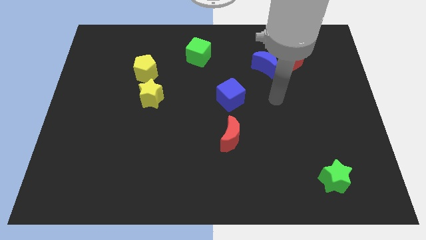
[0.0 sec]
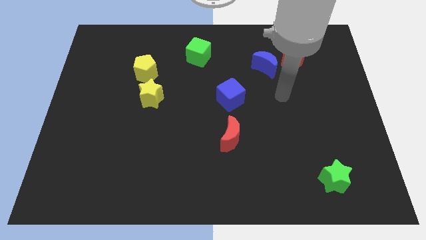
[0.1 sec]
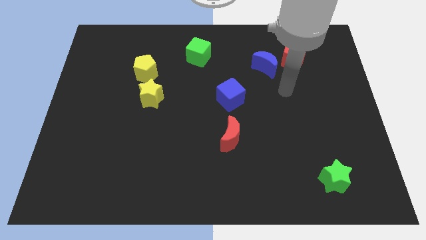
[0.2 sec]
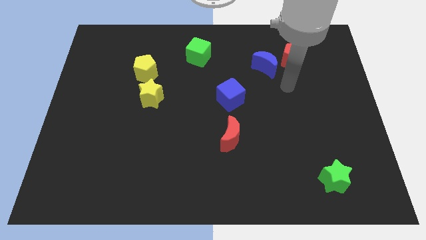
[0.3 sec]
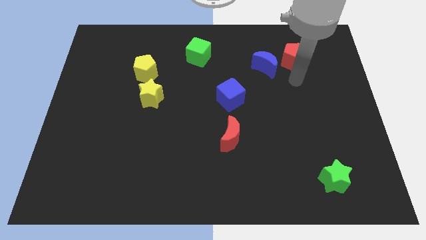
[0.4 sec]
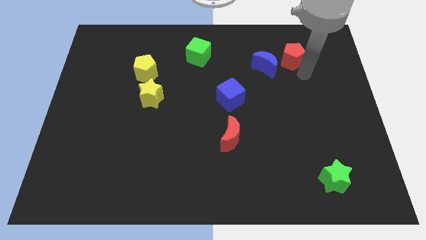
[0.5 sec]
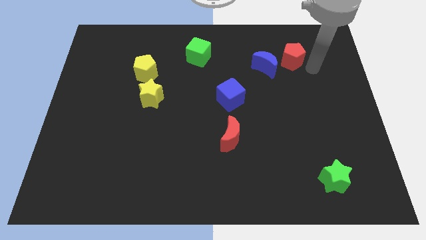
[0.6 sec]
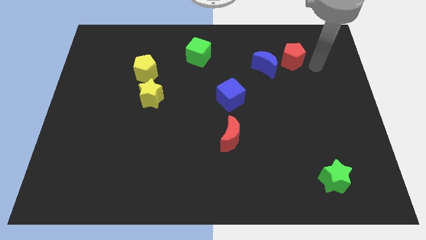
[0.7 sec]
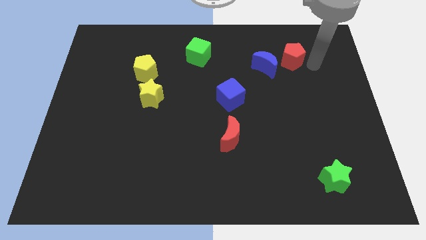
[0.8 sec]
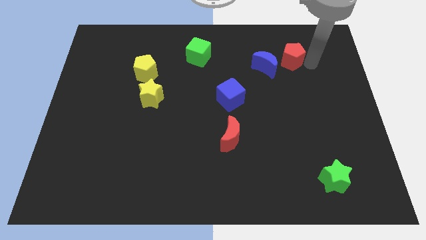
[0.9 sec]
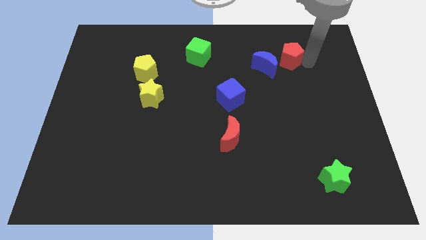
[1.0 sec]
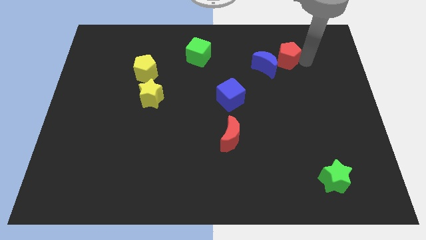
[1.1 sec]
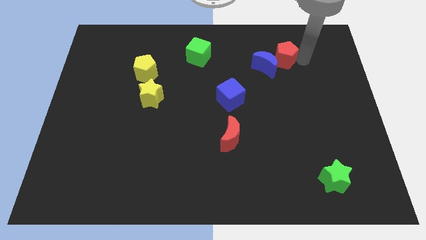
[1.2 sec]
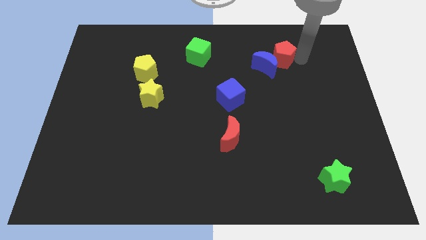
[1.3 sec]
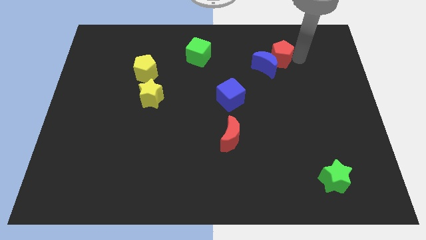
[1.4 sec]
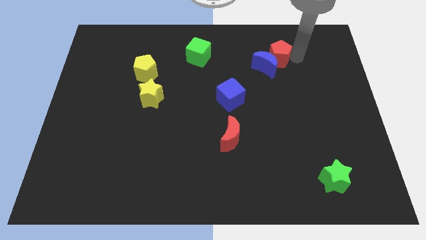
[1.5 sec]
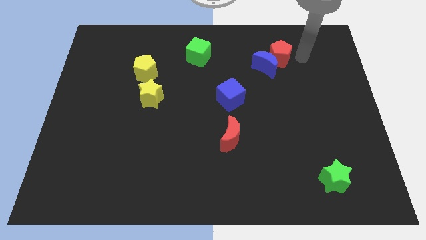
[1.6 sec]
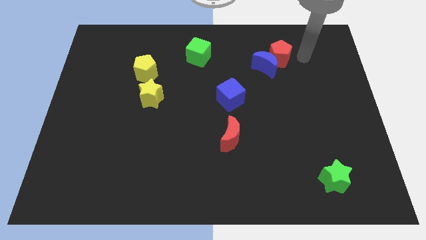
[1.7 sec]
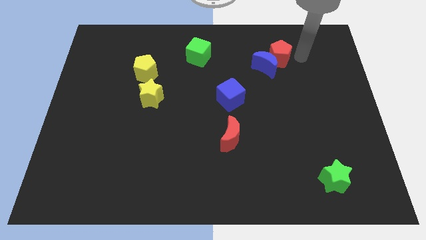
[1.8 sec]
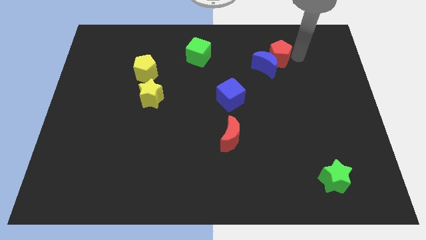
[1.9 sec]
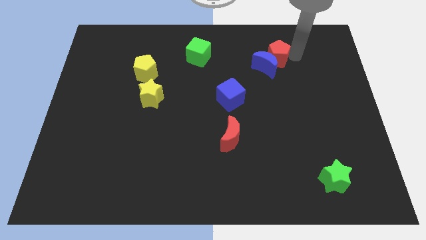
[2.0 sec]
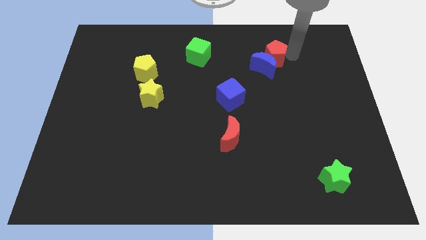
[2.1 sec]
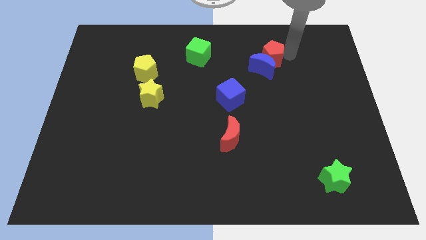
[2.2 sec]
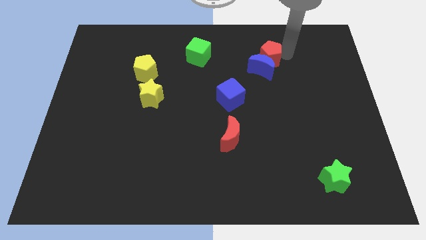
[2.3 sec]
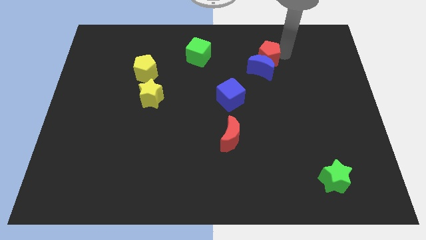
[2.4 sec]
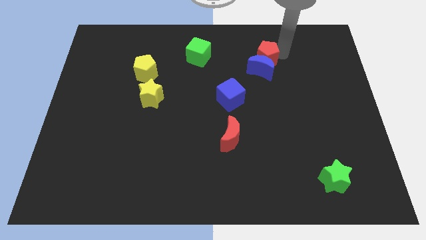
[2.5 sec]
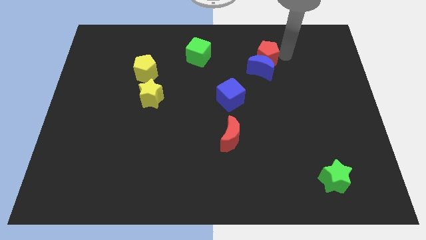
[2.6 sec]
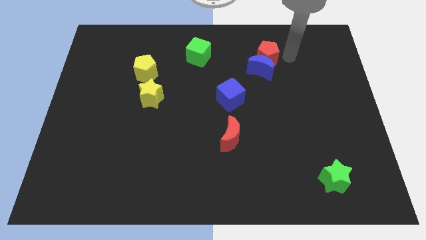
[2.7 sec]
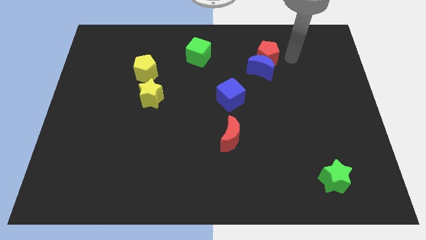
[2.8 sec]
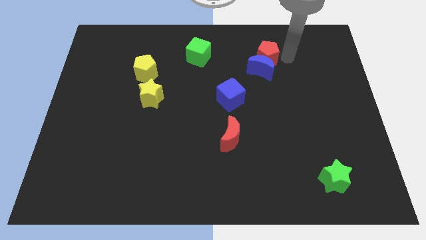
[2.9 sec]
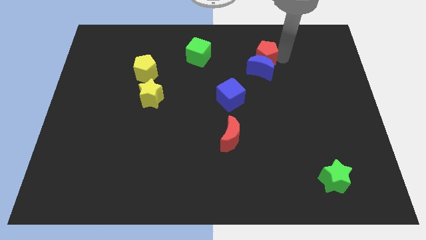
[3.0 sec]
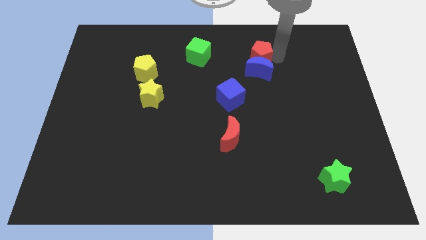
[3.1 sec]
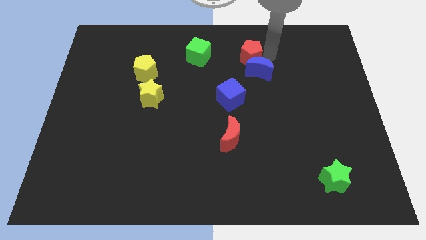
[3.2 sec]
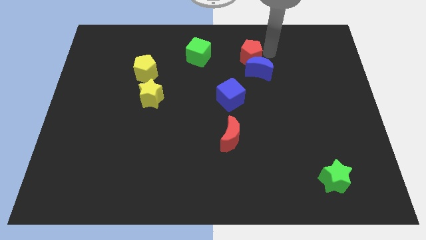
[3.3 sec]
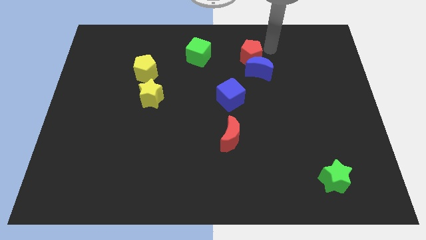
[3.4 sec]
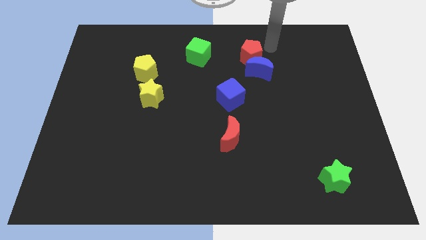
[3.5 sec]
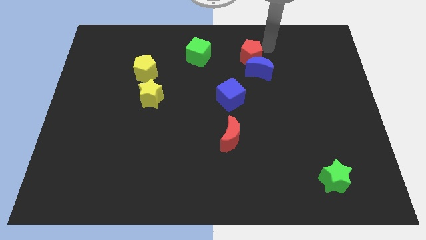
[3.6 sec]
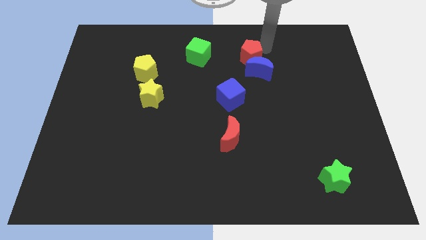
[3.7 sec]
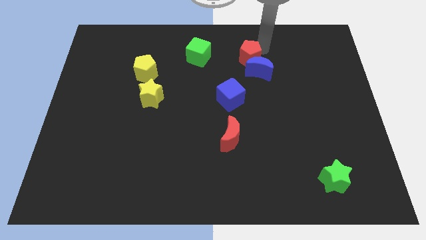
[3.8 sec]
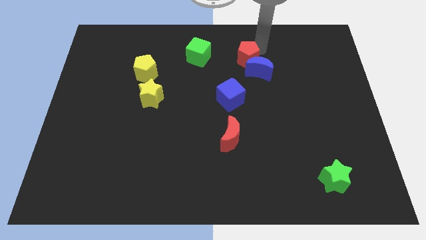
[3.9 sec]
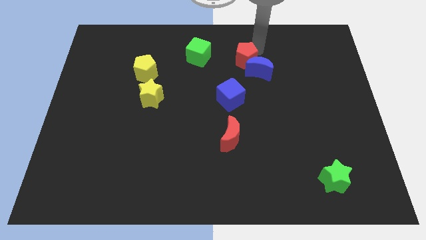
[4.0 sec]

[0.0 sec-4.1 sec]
slide the red pentagon to the top side of the blue cube

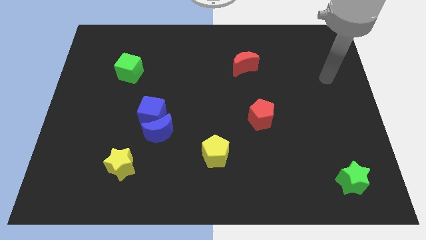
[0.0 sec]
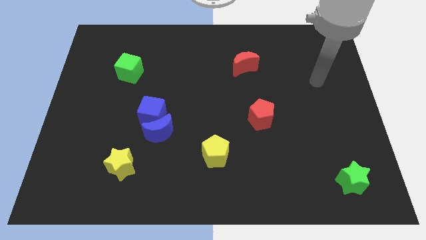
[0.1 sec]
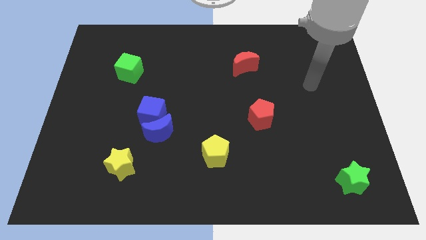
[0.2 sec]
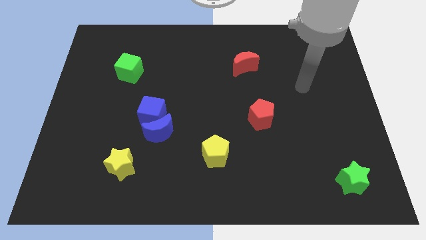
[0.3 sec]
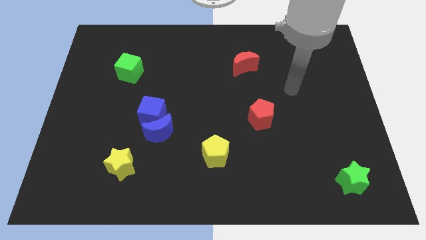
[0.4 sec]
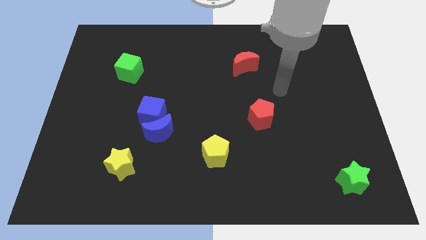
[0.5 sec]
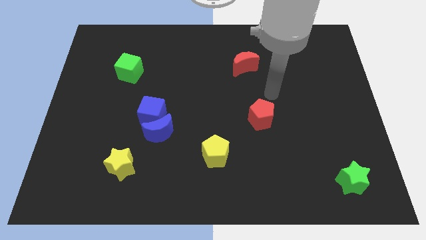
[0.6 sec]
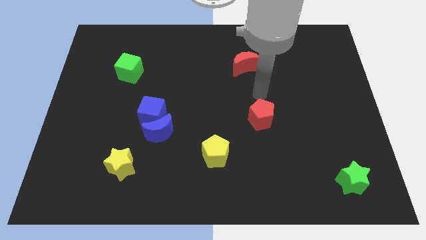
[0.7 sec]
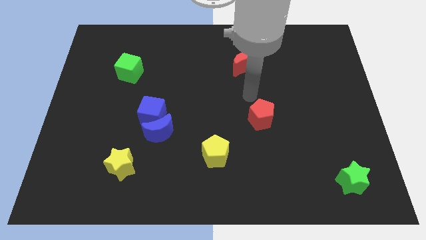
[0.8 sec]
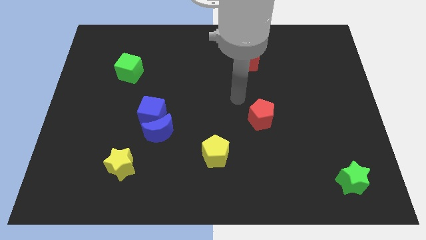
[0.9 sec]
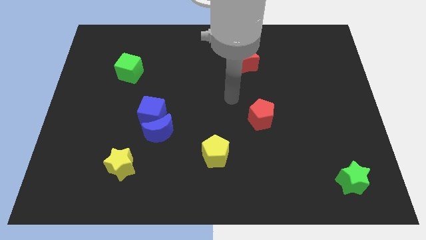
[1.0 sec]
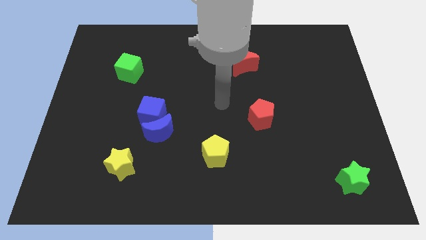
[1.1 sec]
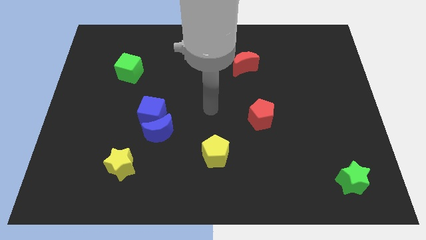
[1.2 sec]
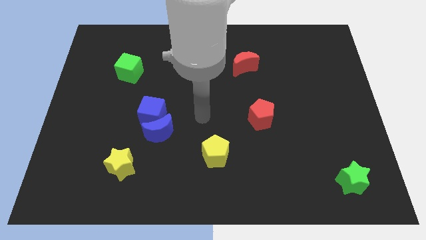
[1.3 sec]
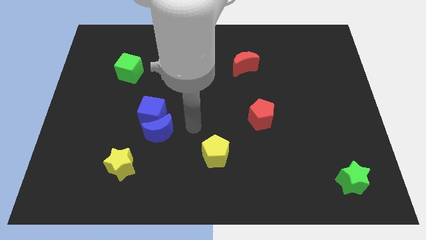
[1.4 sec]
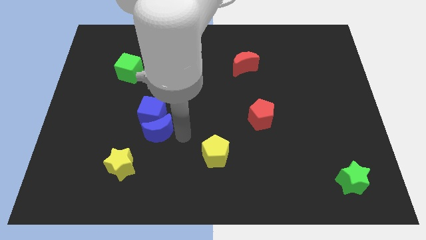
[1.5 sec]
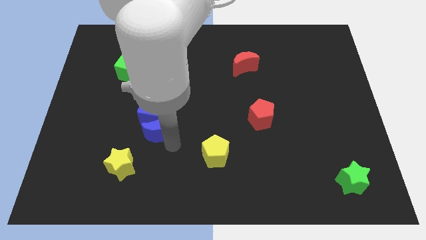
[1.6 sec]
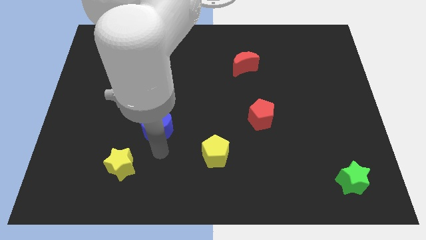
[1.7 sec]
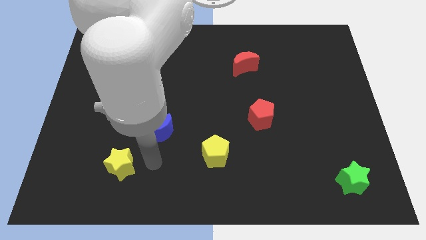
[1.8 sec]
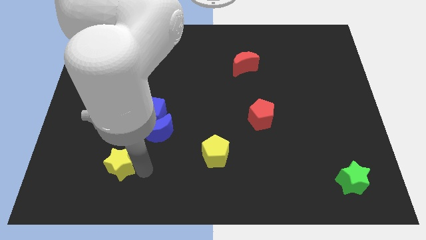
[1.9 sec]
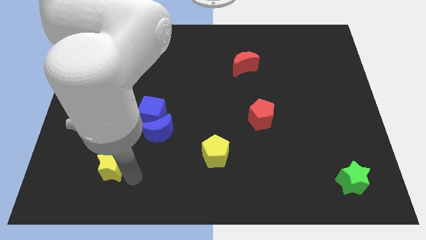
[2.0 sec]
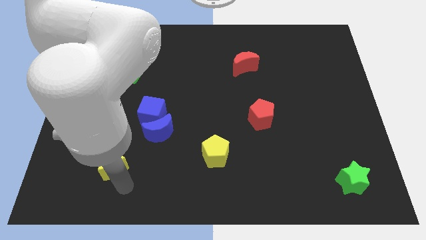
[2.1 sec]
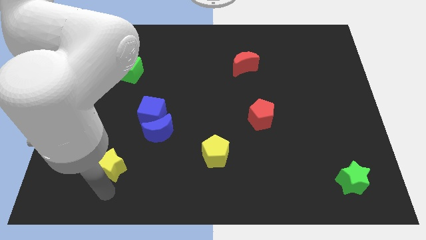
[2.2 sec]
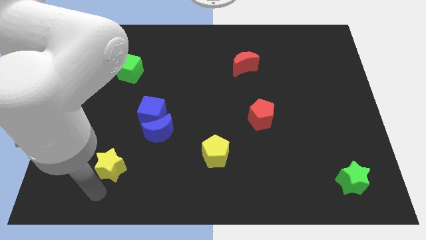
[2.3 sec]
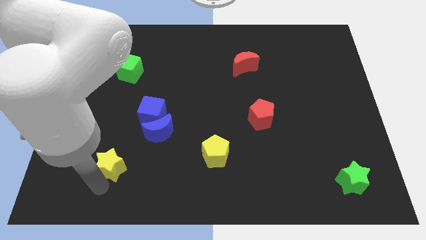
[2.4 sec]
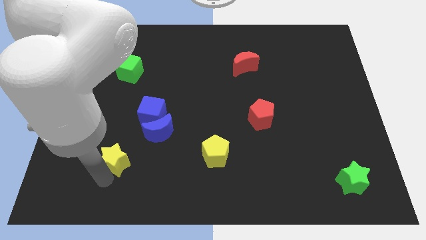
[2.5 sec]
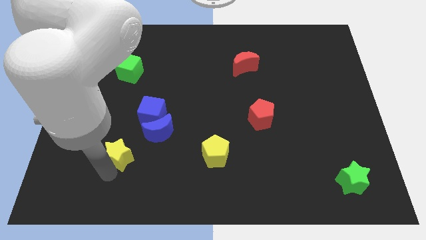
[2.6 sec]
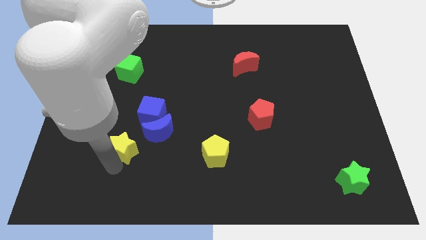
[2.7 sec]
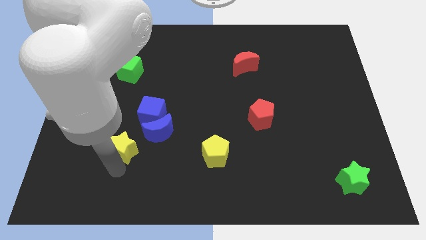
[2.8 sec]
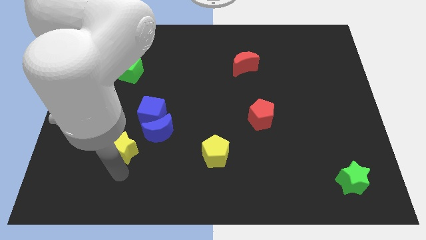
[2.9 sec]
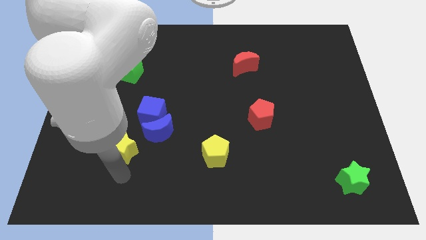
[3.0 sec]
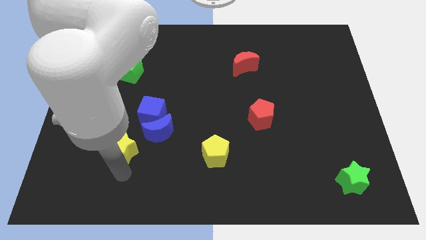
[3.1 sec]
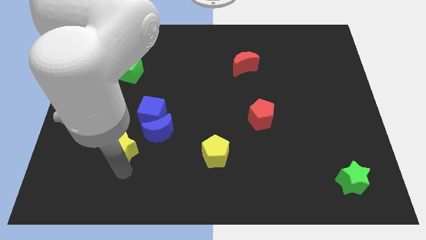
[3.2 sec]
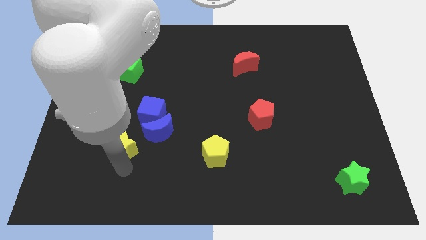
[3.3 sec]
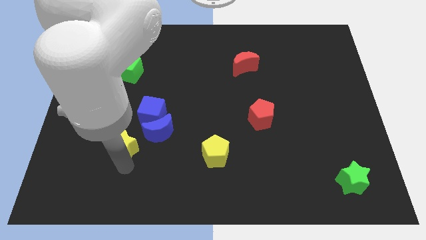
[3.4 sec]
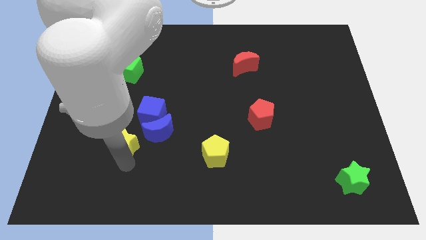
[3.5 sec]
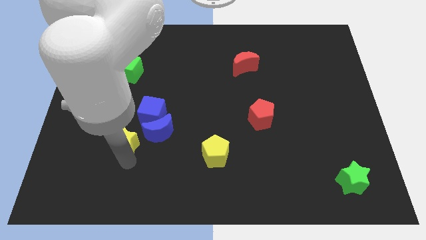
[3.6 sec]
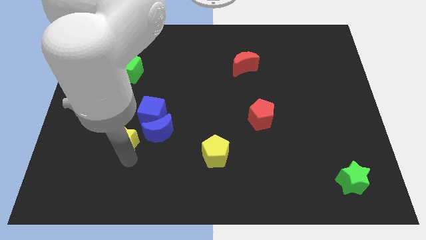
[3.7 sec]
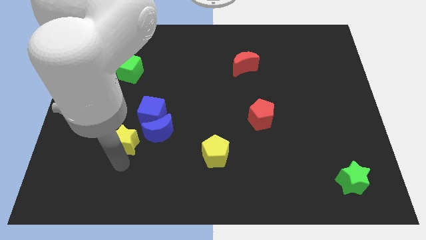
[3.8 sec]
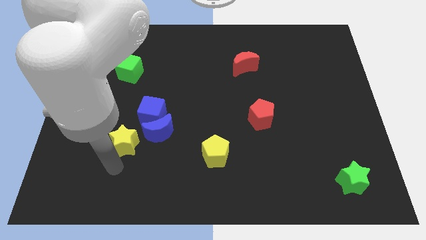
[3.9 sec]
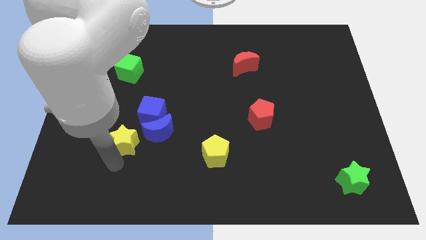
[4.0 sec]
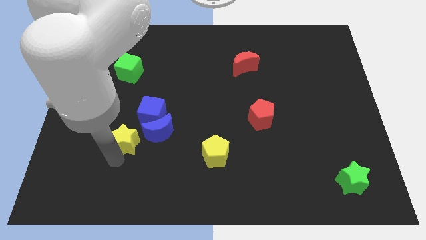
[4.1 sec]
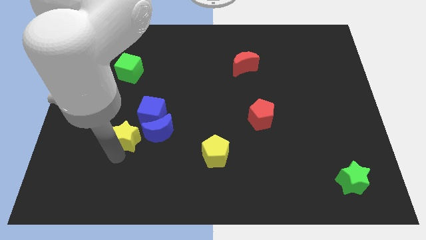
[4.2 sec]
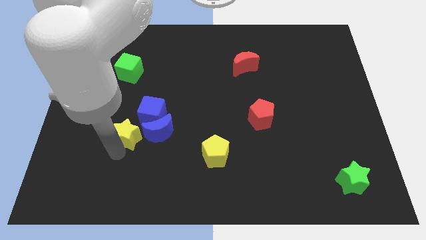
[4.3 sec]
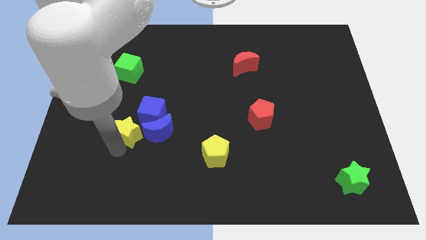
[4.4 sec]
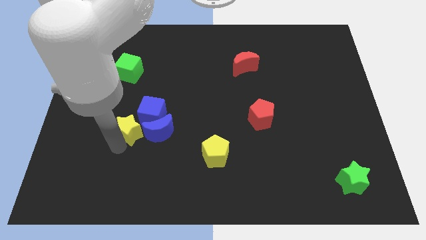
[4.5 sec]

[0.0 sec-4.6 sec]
slide the yellow star to the top left of the blue moon
